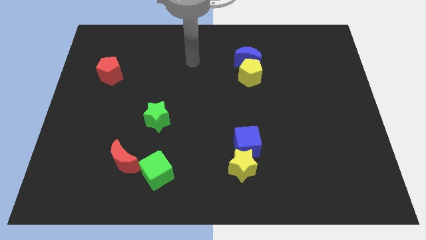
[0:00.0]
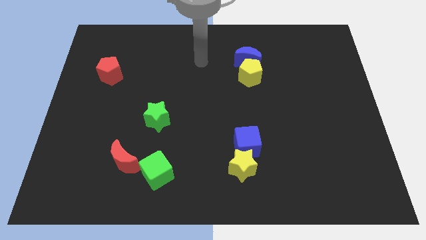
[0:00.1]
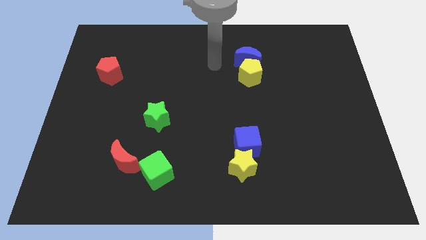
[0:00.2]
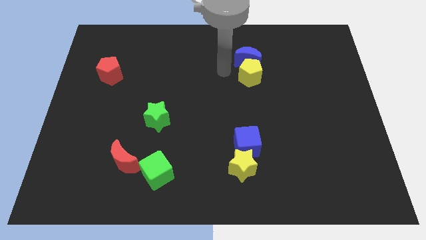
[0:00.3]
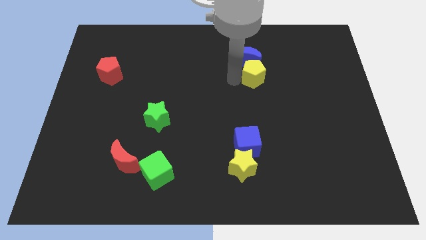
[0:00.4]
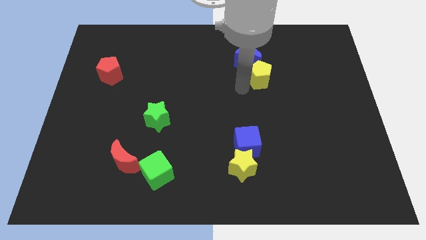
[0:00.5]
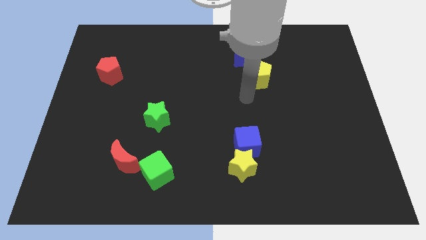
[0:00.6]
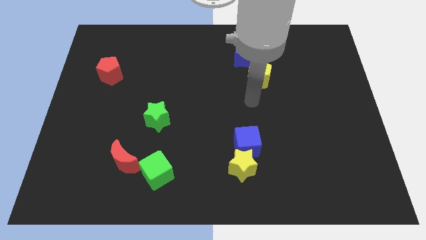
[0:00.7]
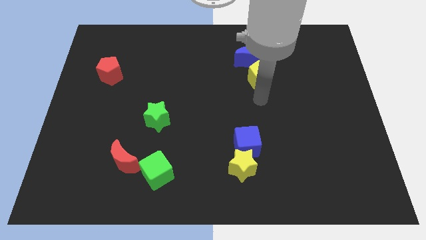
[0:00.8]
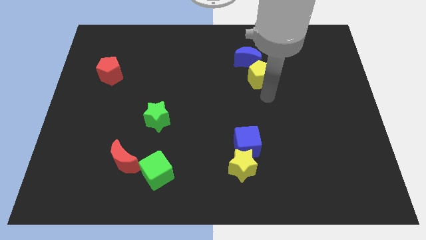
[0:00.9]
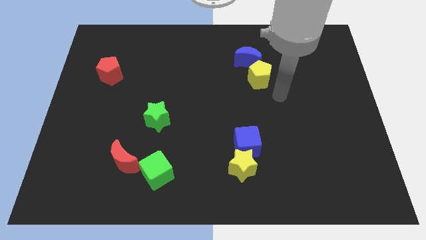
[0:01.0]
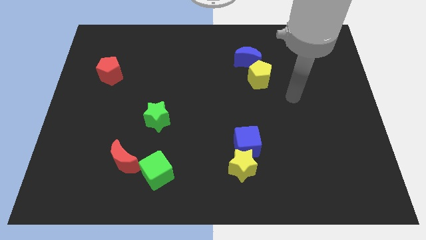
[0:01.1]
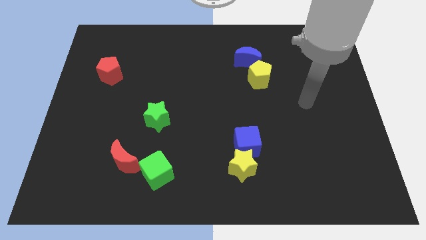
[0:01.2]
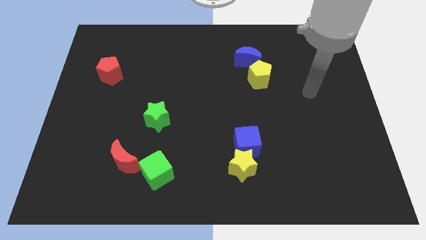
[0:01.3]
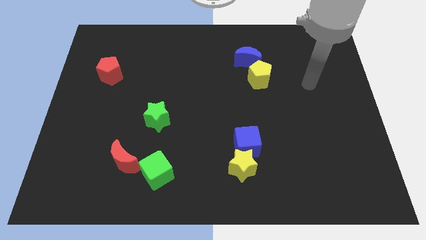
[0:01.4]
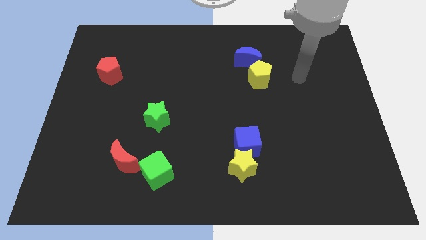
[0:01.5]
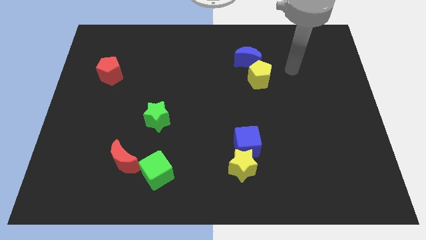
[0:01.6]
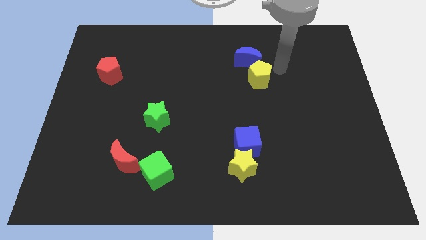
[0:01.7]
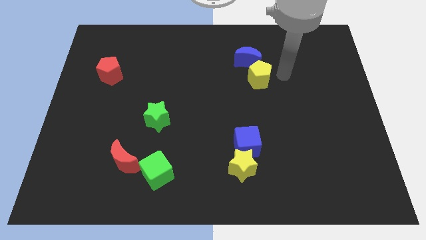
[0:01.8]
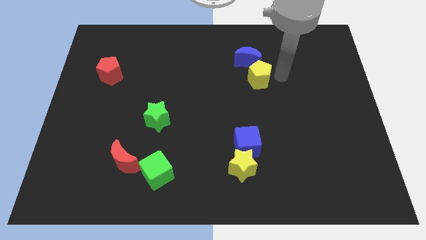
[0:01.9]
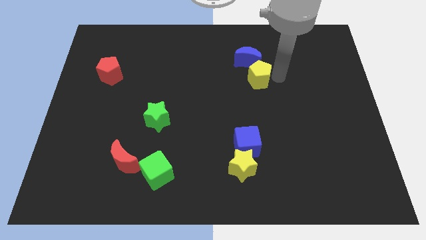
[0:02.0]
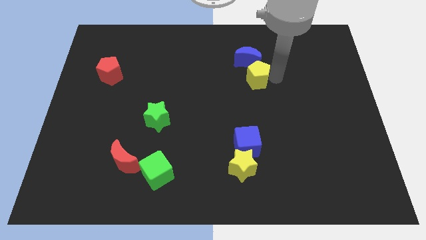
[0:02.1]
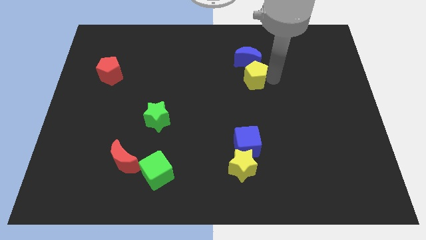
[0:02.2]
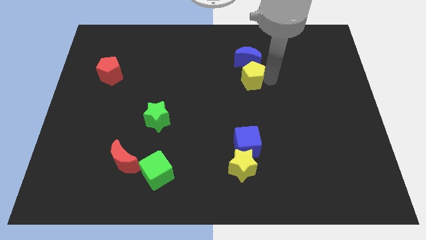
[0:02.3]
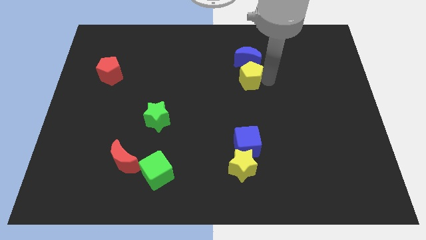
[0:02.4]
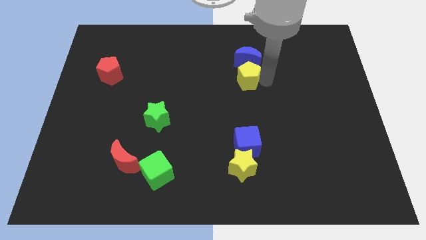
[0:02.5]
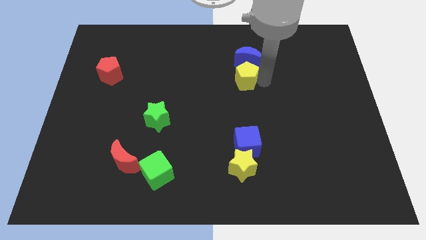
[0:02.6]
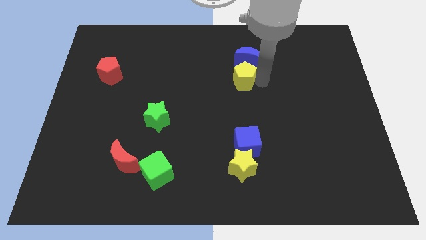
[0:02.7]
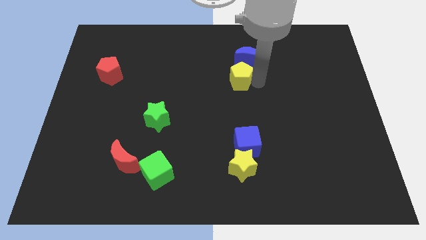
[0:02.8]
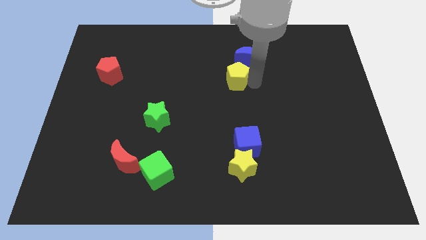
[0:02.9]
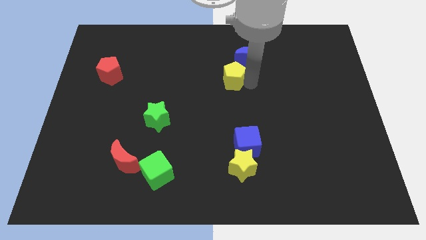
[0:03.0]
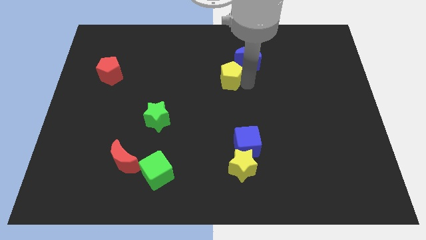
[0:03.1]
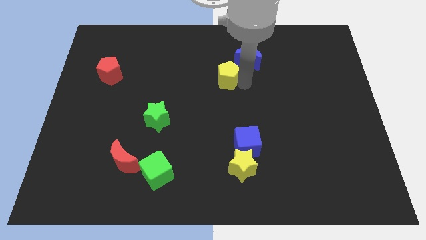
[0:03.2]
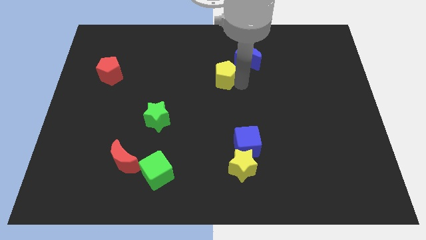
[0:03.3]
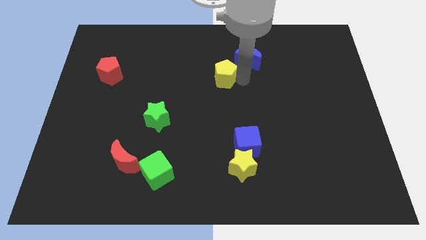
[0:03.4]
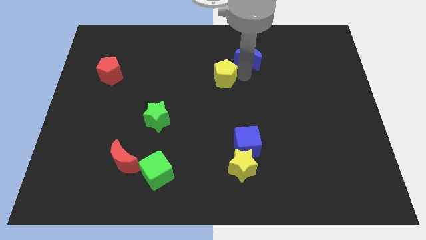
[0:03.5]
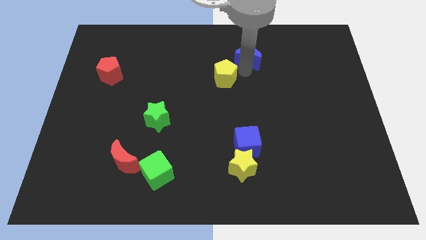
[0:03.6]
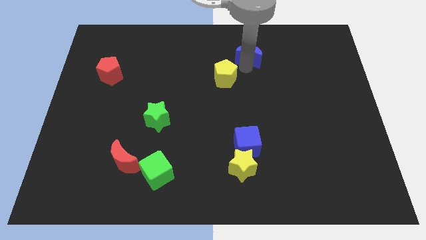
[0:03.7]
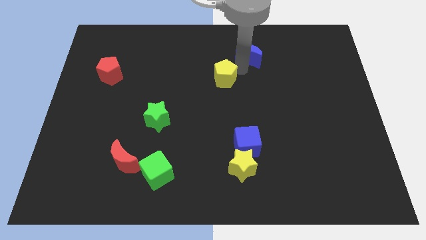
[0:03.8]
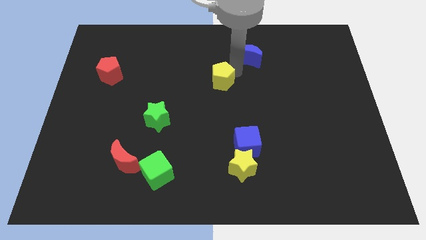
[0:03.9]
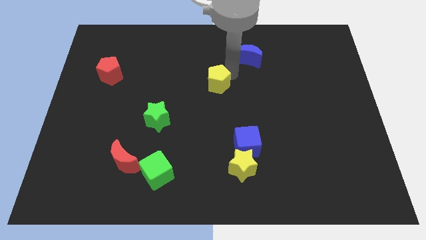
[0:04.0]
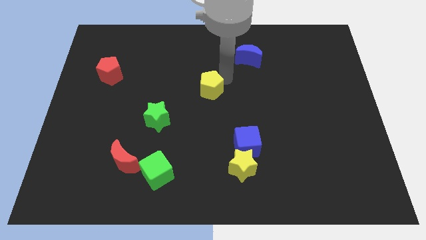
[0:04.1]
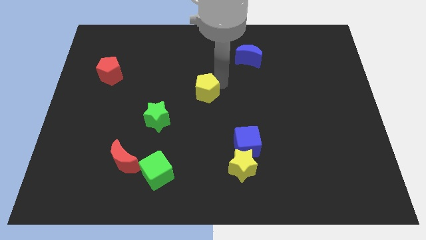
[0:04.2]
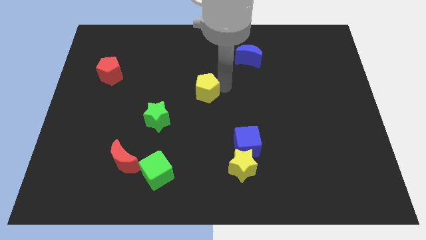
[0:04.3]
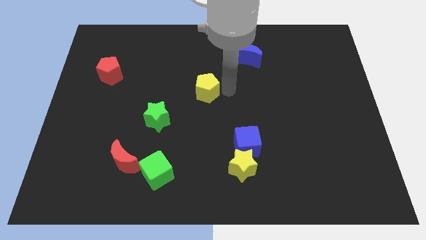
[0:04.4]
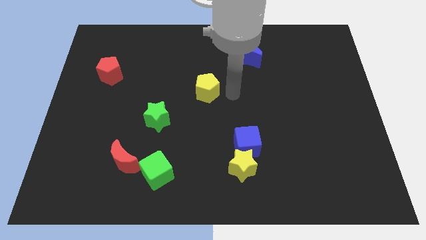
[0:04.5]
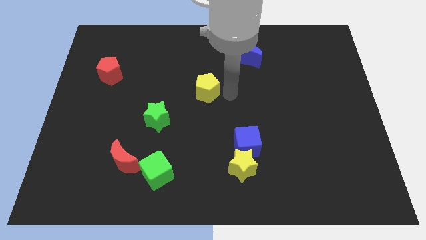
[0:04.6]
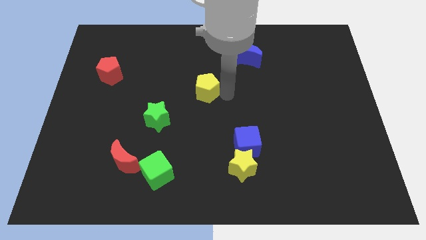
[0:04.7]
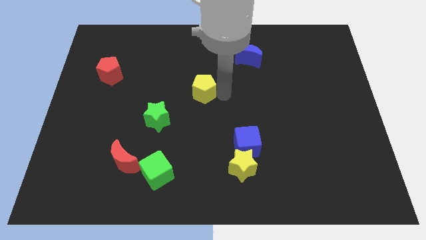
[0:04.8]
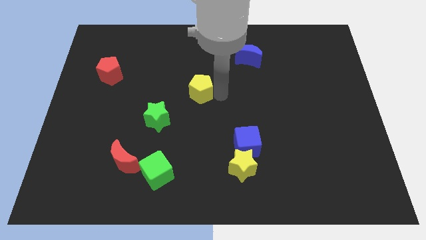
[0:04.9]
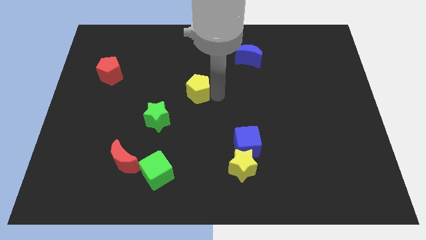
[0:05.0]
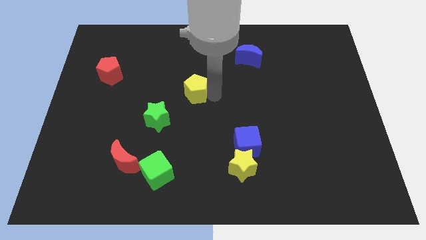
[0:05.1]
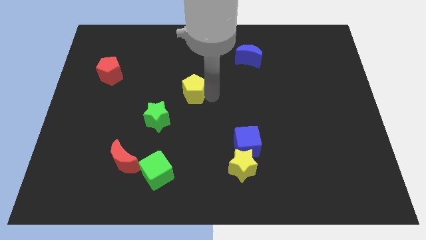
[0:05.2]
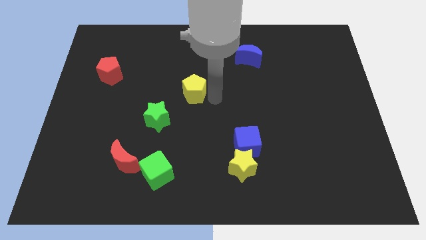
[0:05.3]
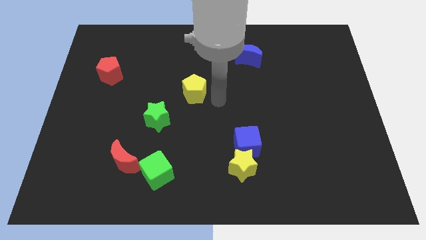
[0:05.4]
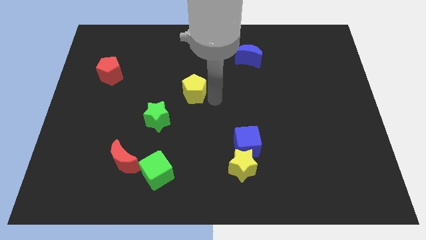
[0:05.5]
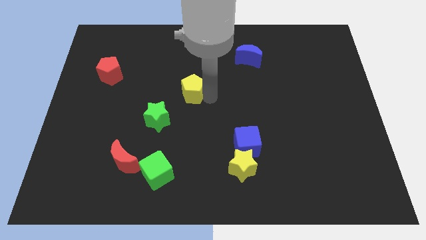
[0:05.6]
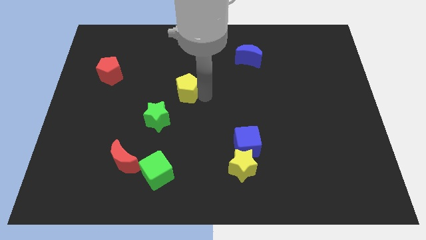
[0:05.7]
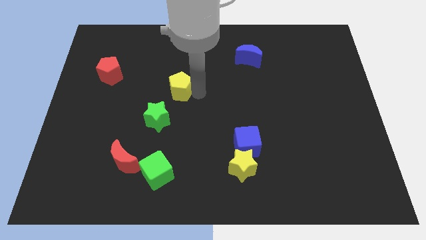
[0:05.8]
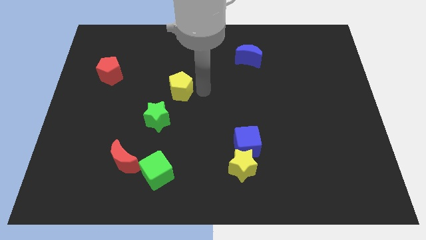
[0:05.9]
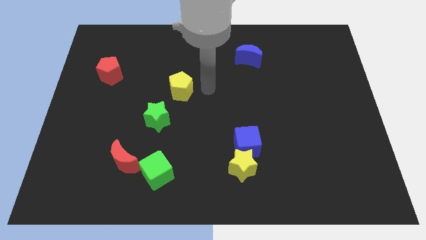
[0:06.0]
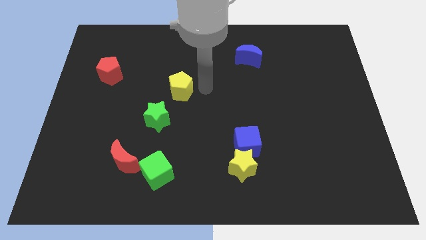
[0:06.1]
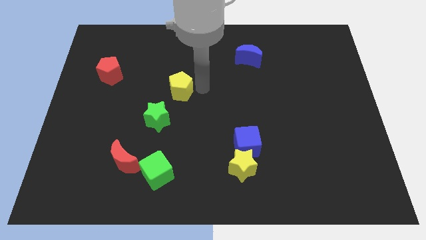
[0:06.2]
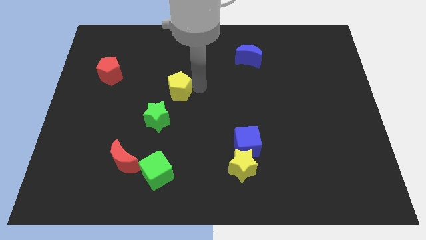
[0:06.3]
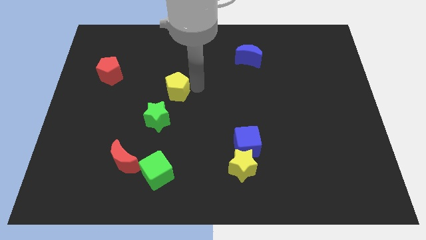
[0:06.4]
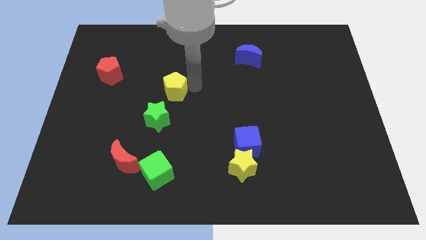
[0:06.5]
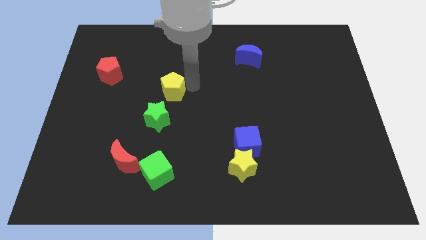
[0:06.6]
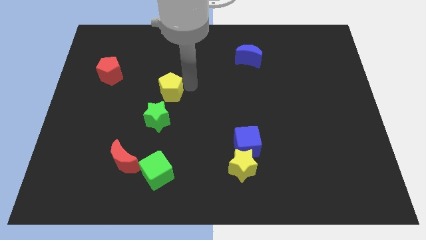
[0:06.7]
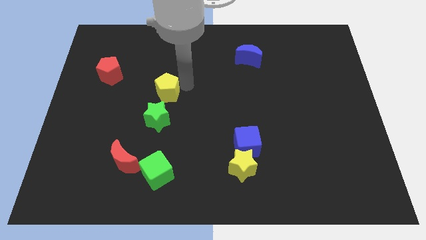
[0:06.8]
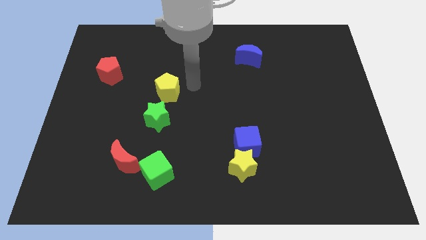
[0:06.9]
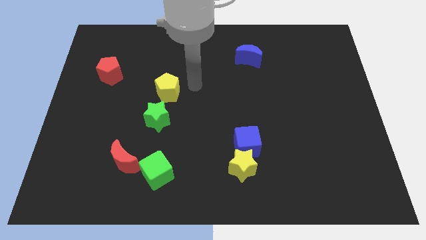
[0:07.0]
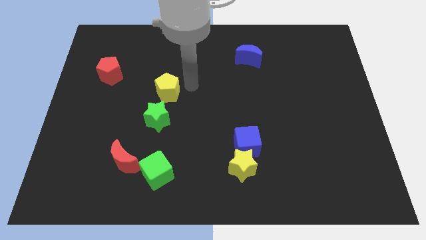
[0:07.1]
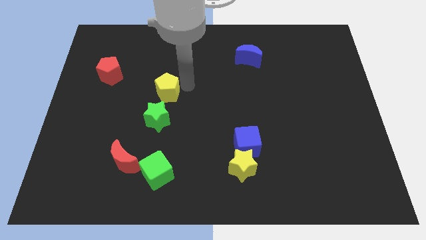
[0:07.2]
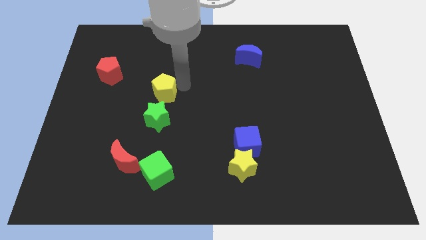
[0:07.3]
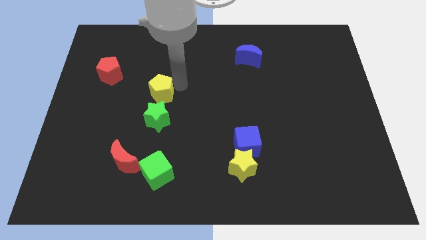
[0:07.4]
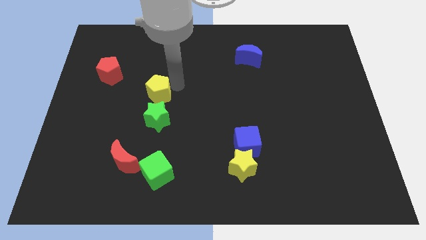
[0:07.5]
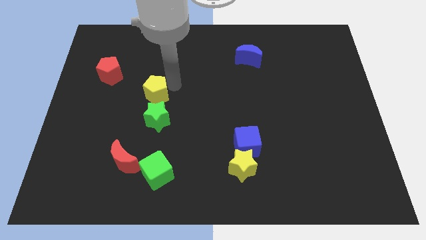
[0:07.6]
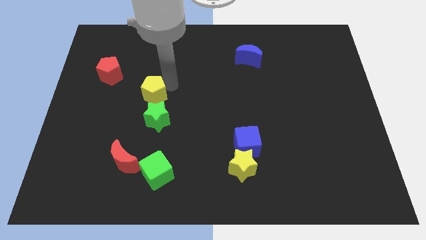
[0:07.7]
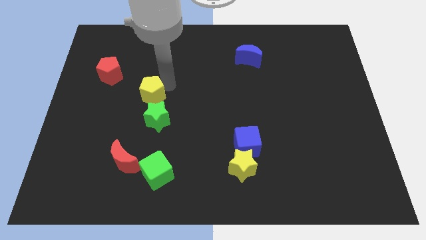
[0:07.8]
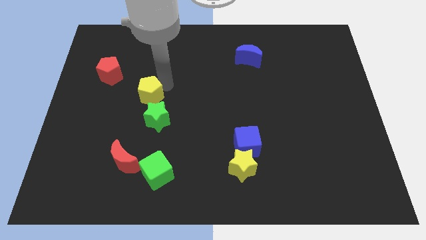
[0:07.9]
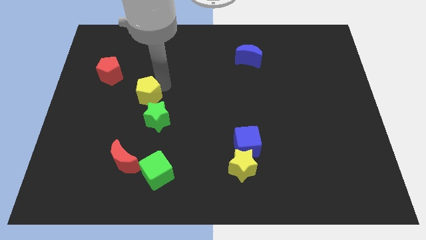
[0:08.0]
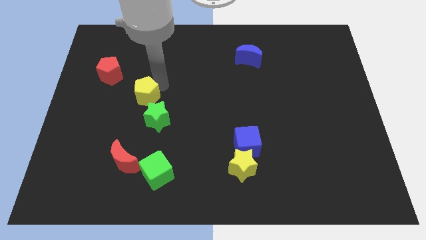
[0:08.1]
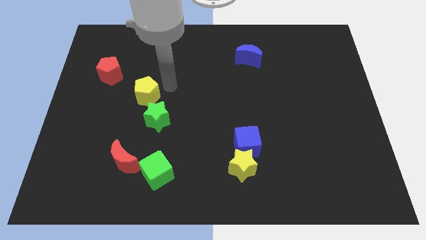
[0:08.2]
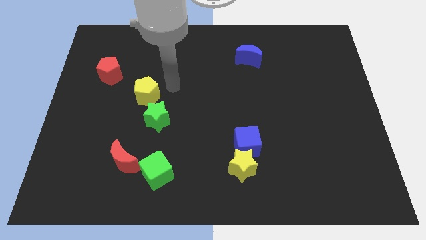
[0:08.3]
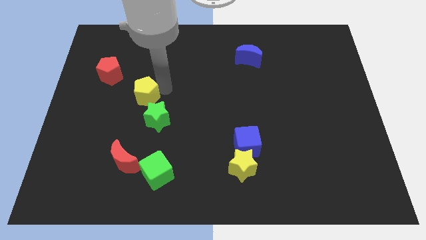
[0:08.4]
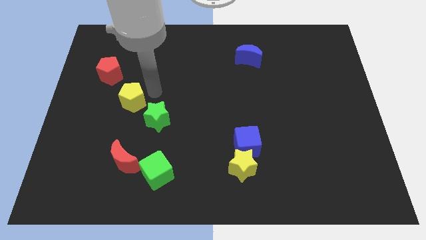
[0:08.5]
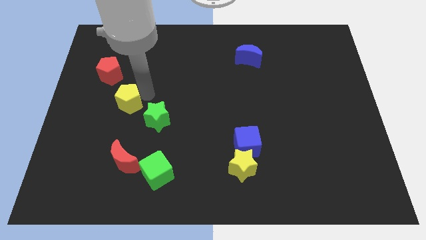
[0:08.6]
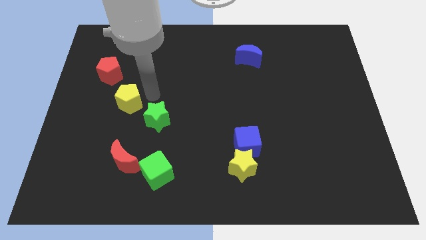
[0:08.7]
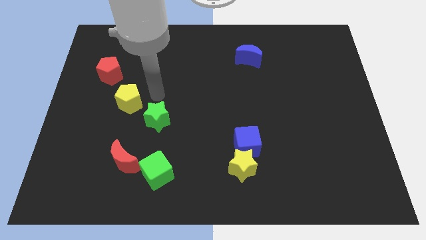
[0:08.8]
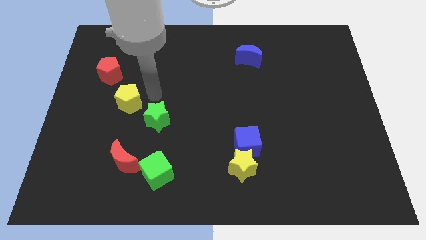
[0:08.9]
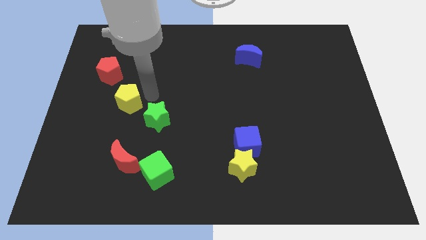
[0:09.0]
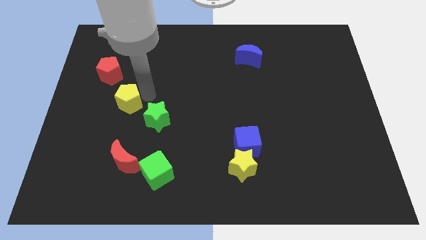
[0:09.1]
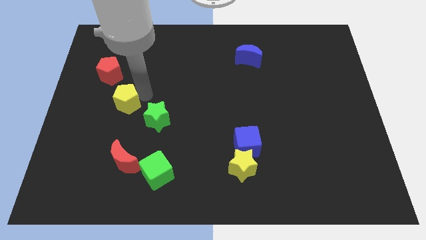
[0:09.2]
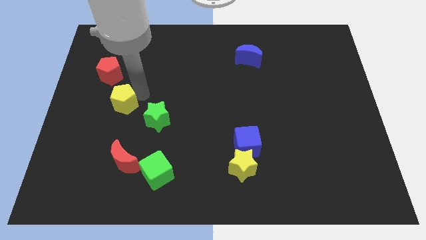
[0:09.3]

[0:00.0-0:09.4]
push the yellow pentagon to the bottom side of the red pentagon
